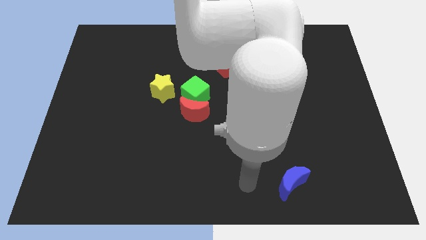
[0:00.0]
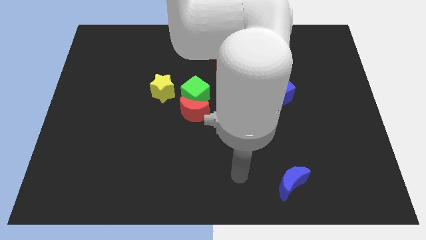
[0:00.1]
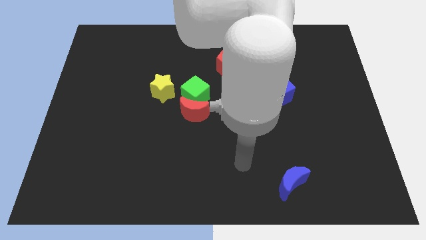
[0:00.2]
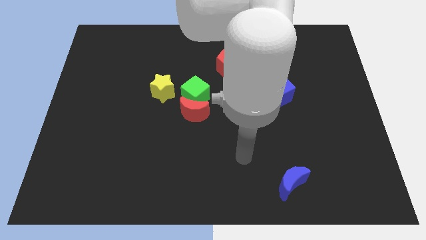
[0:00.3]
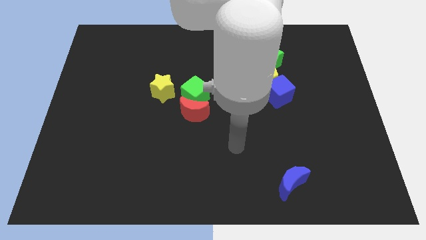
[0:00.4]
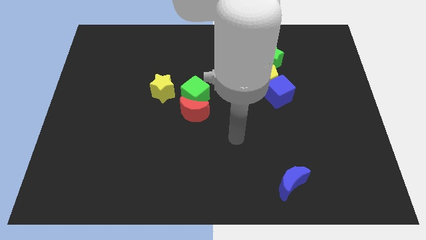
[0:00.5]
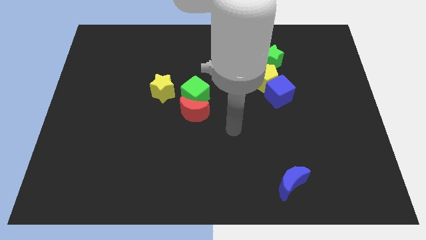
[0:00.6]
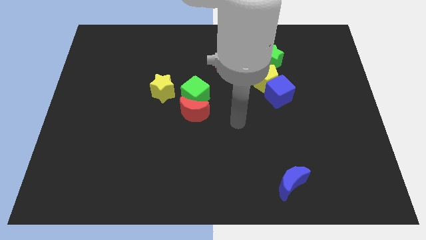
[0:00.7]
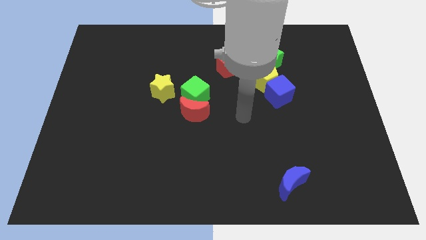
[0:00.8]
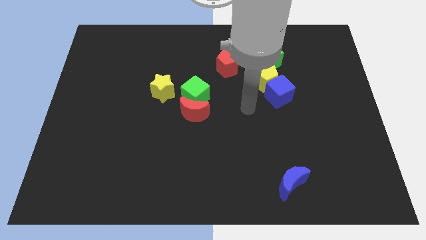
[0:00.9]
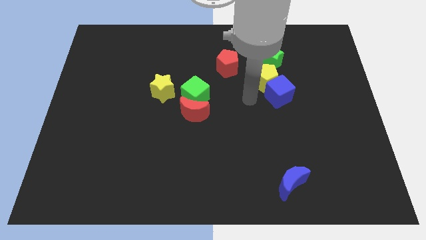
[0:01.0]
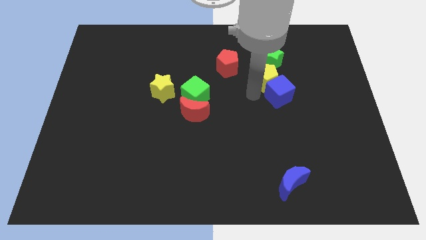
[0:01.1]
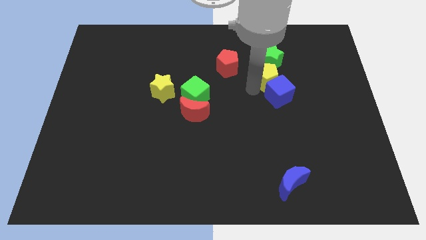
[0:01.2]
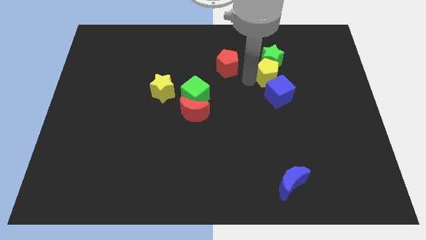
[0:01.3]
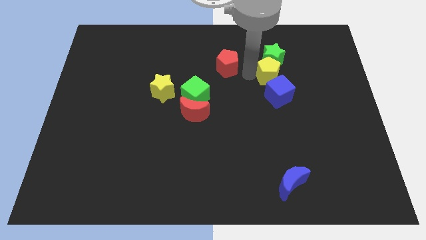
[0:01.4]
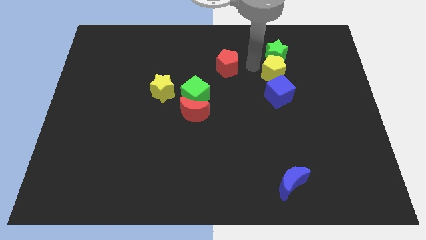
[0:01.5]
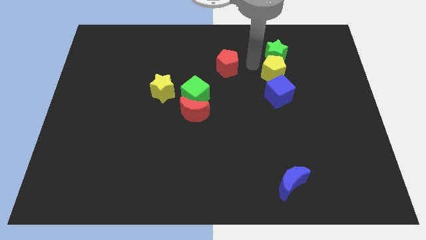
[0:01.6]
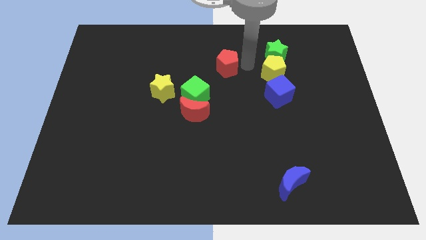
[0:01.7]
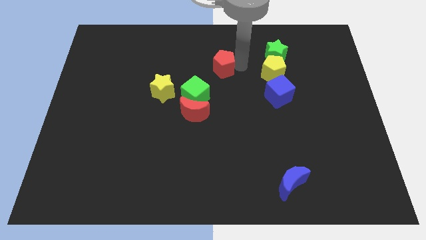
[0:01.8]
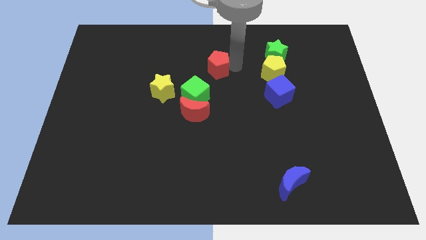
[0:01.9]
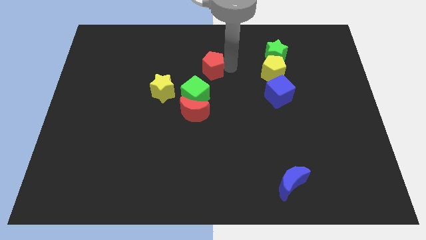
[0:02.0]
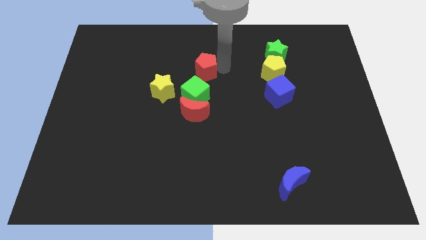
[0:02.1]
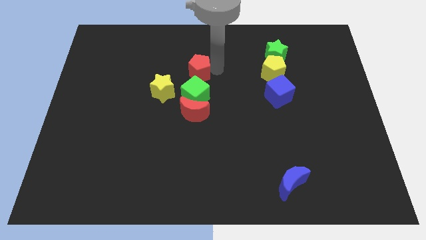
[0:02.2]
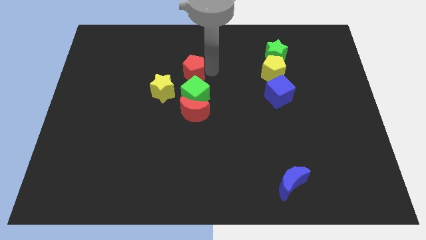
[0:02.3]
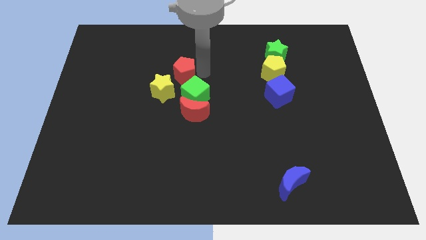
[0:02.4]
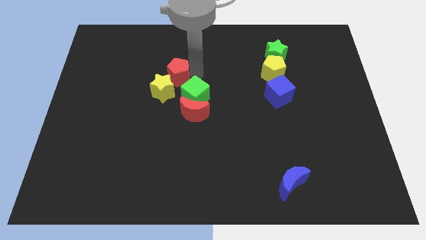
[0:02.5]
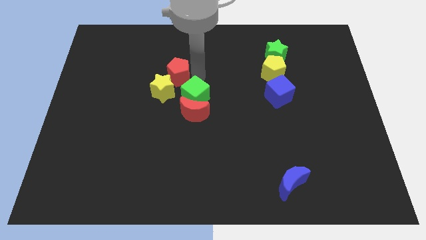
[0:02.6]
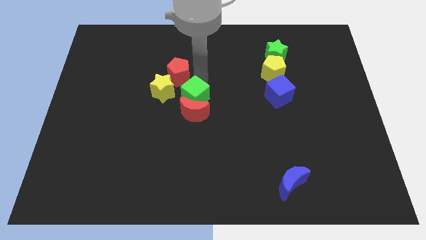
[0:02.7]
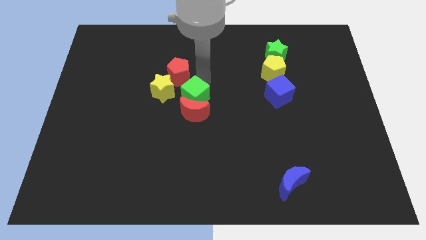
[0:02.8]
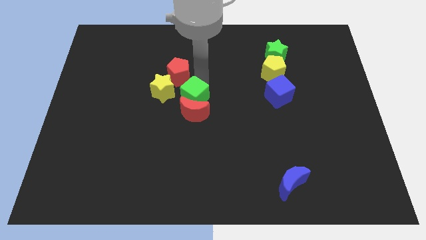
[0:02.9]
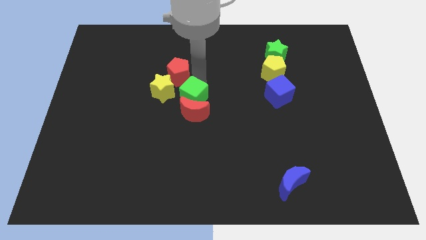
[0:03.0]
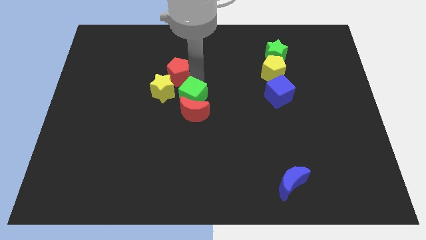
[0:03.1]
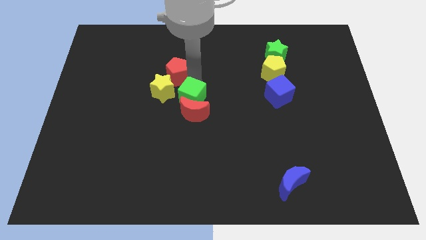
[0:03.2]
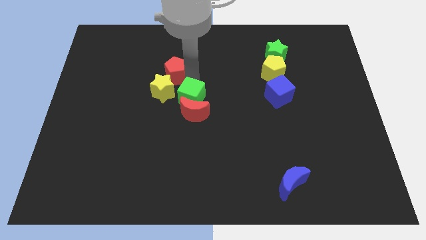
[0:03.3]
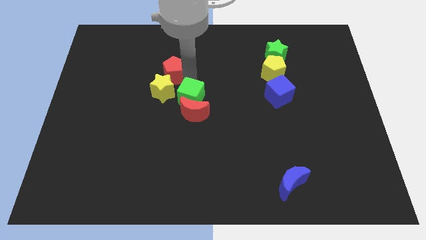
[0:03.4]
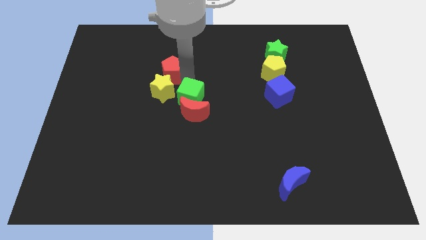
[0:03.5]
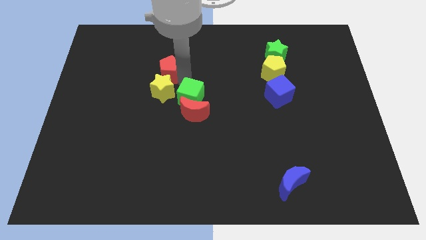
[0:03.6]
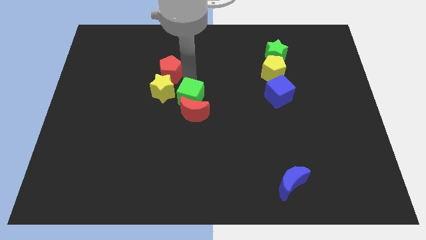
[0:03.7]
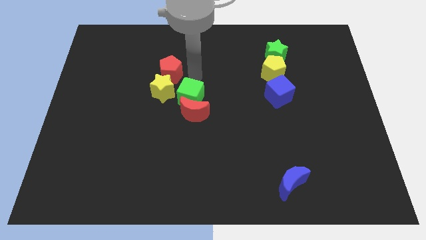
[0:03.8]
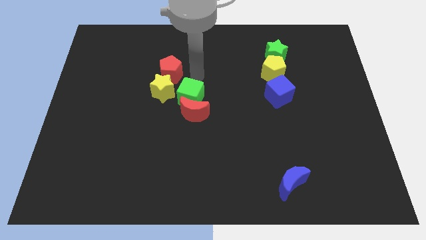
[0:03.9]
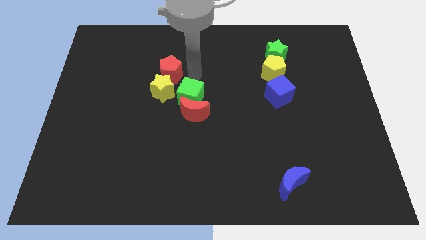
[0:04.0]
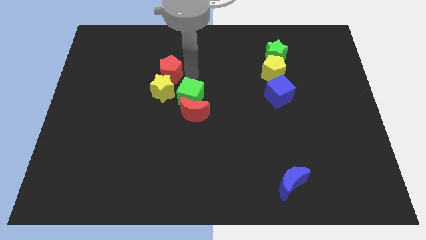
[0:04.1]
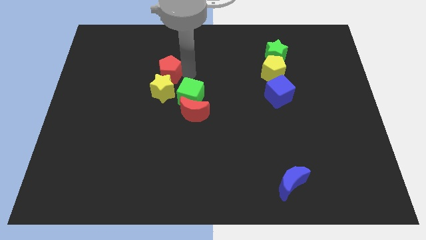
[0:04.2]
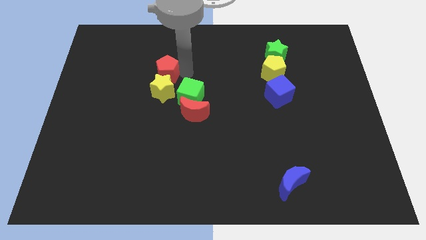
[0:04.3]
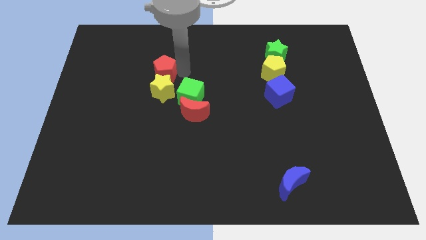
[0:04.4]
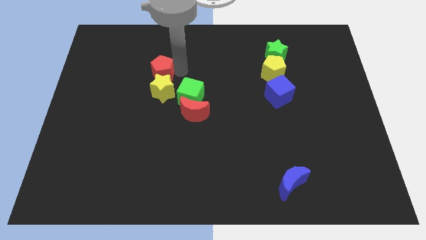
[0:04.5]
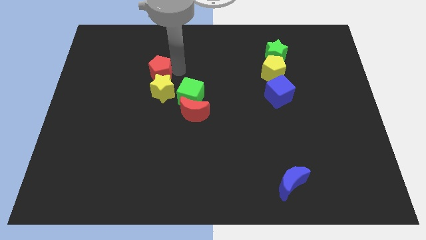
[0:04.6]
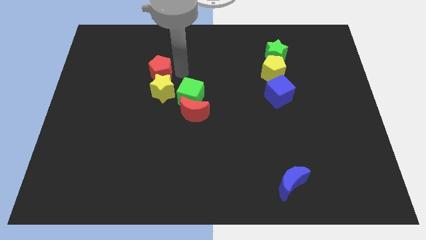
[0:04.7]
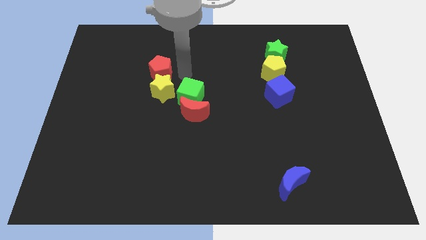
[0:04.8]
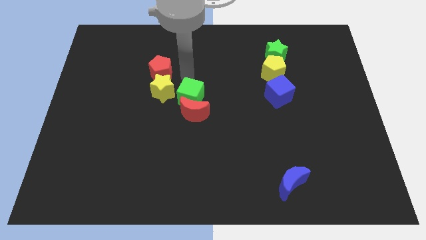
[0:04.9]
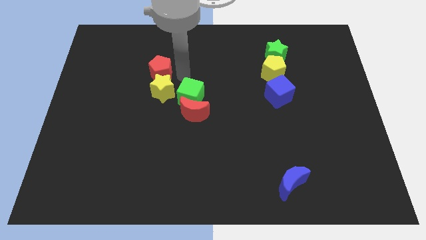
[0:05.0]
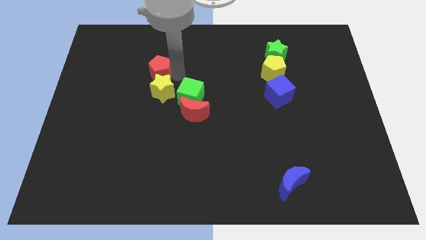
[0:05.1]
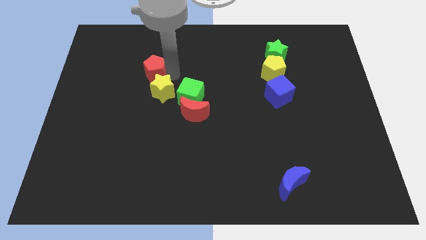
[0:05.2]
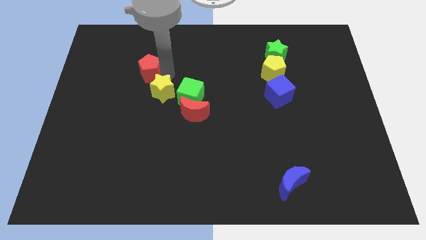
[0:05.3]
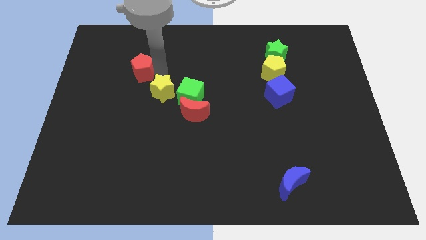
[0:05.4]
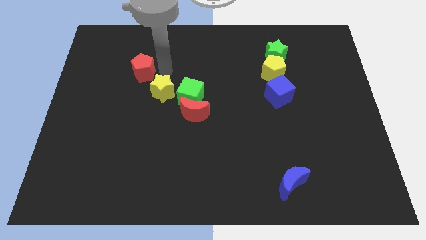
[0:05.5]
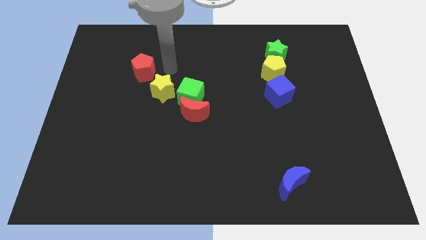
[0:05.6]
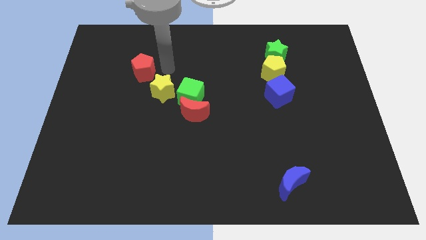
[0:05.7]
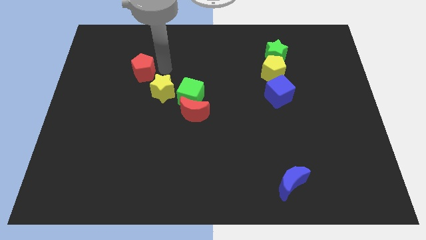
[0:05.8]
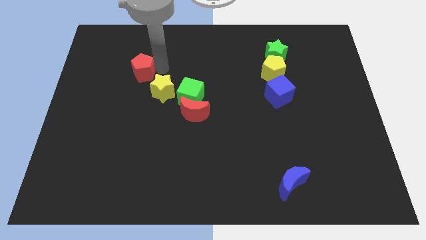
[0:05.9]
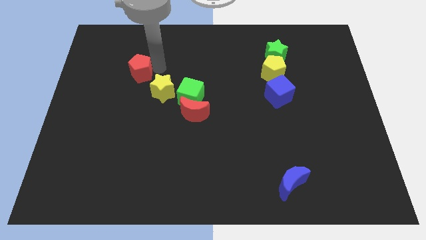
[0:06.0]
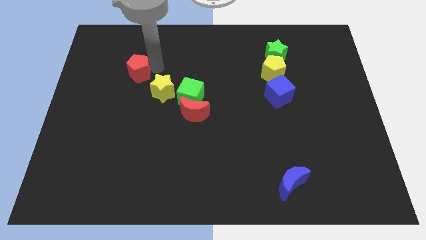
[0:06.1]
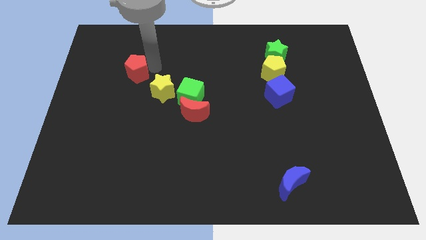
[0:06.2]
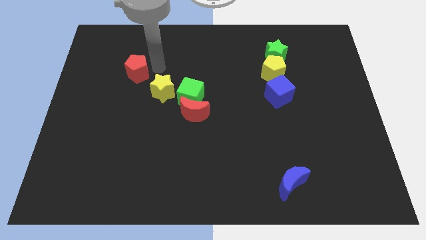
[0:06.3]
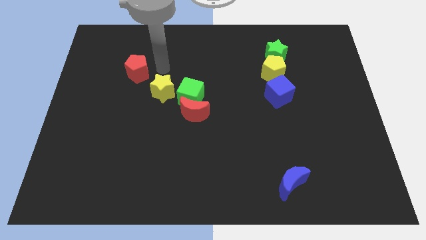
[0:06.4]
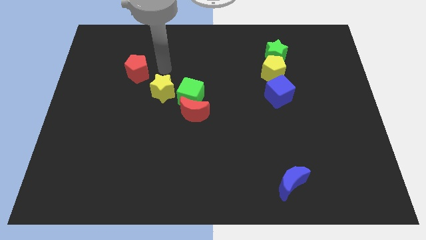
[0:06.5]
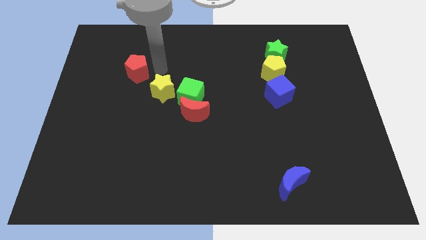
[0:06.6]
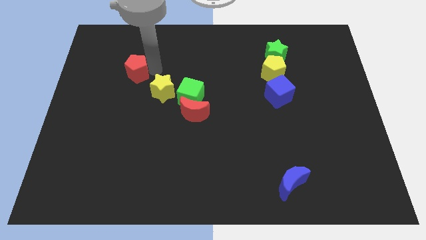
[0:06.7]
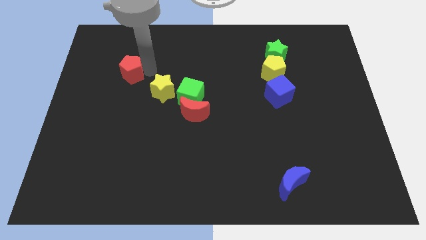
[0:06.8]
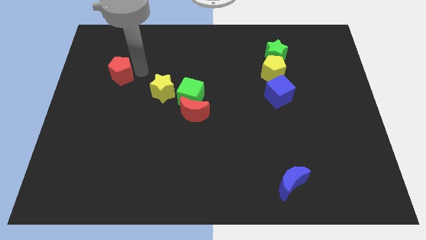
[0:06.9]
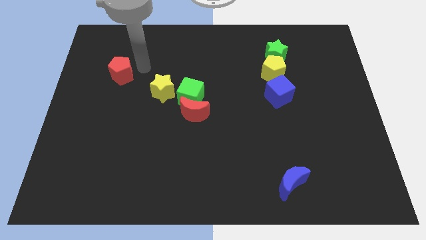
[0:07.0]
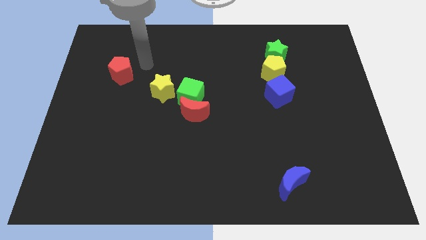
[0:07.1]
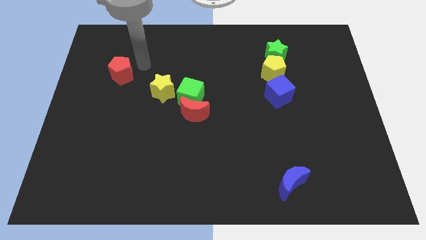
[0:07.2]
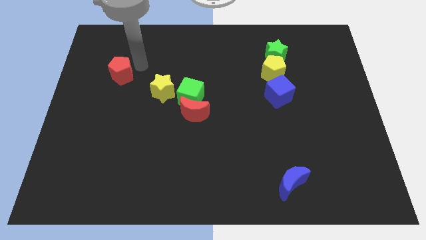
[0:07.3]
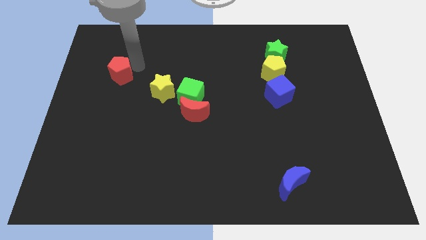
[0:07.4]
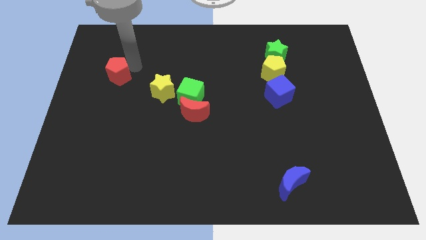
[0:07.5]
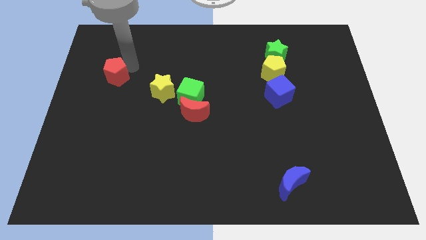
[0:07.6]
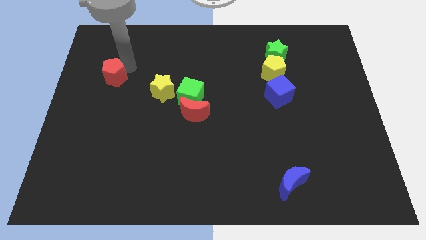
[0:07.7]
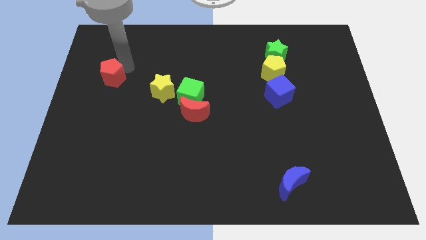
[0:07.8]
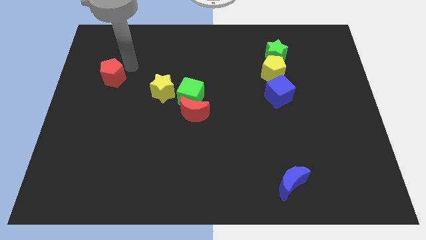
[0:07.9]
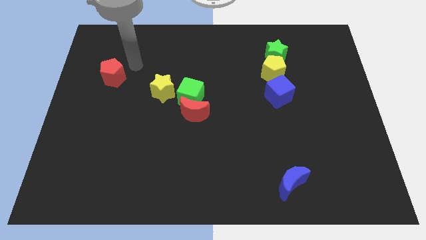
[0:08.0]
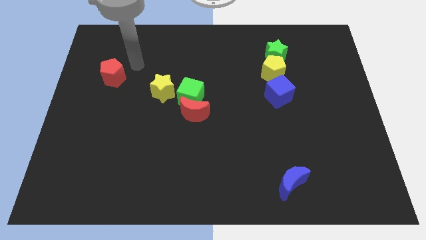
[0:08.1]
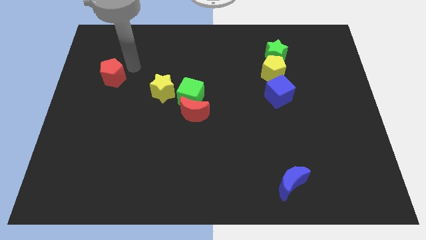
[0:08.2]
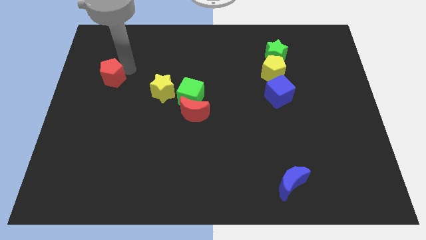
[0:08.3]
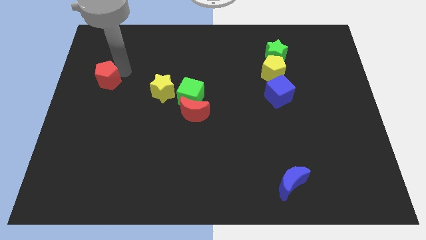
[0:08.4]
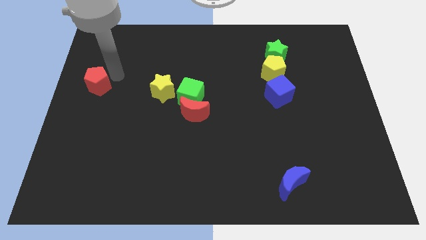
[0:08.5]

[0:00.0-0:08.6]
put the red pentagon to the left side
